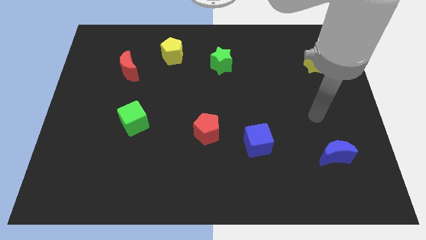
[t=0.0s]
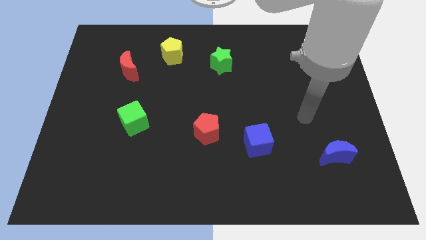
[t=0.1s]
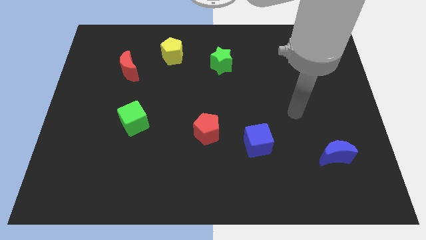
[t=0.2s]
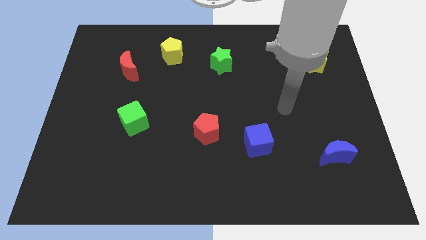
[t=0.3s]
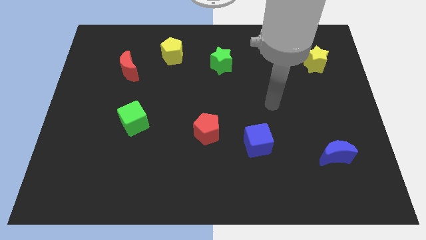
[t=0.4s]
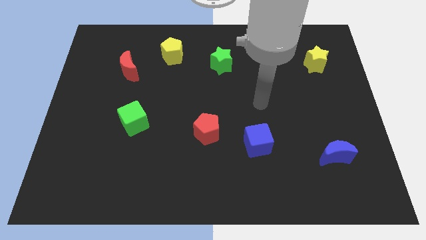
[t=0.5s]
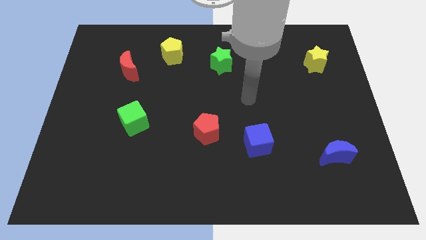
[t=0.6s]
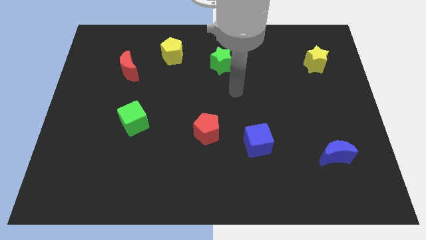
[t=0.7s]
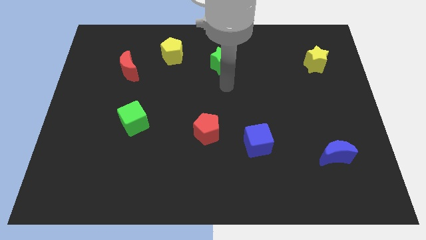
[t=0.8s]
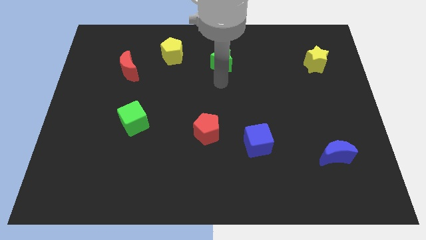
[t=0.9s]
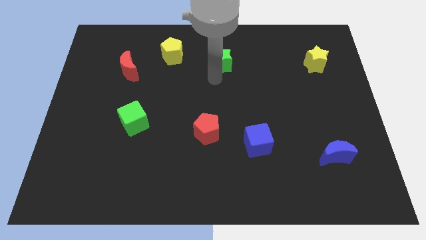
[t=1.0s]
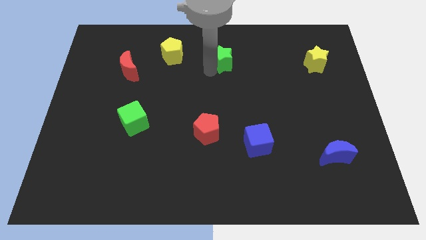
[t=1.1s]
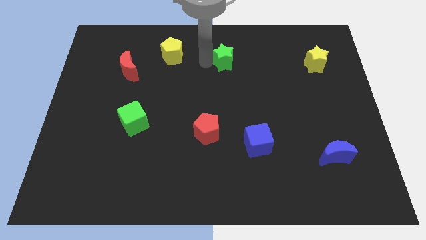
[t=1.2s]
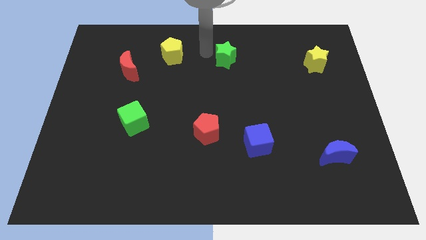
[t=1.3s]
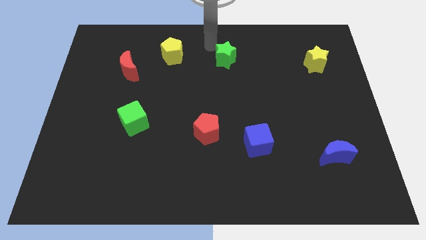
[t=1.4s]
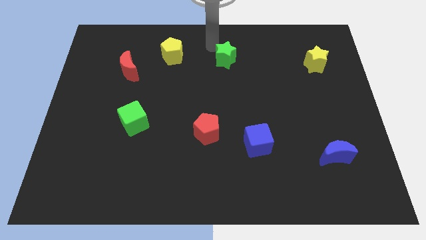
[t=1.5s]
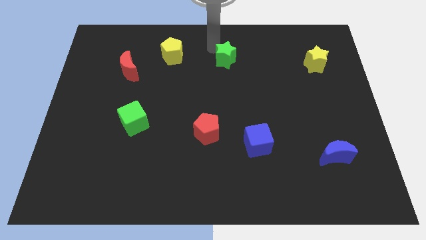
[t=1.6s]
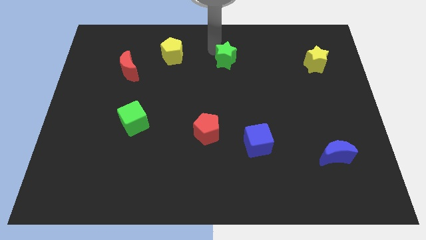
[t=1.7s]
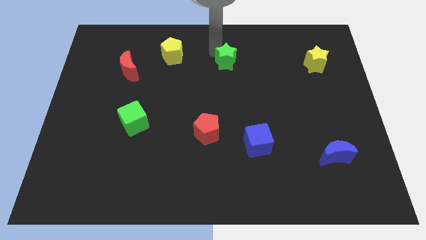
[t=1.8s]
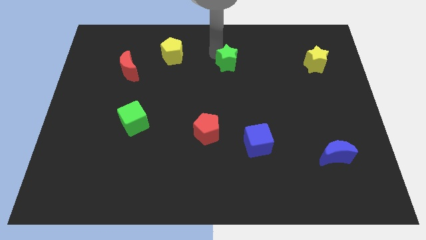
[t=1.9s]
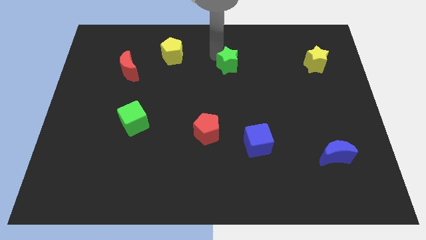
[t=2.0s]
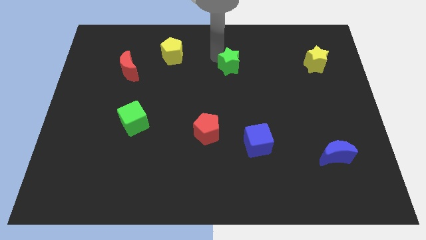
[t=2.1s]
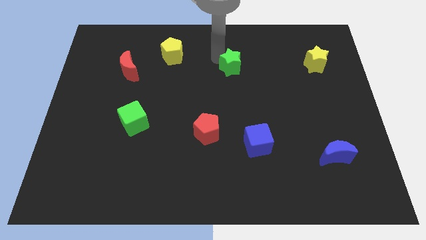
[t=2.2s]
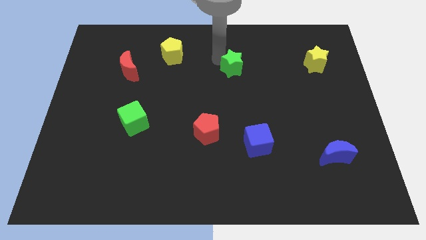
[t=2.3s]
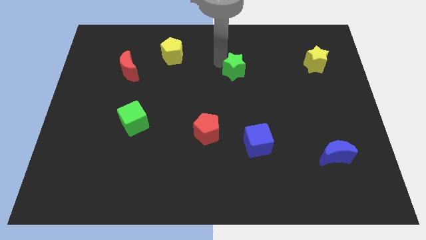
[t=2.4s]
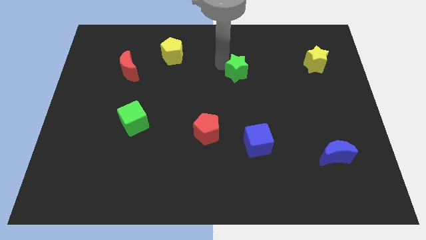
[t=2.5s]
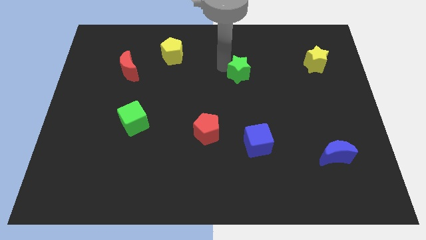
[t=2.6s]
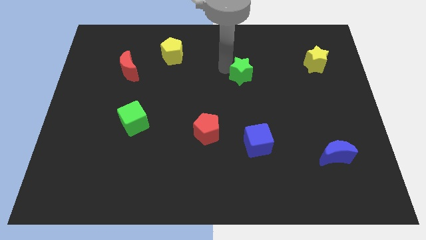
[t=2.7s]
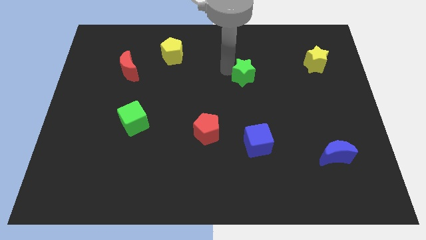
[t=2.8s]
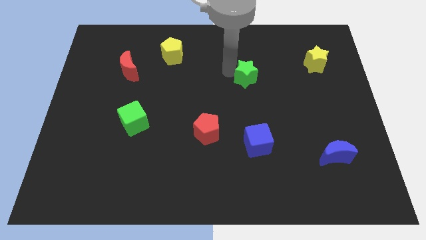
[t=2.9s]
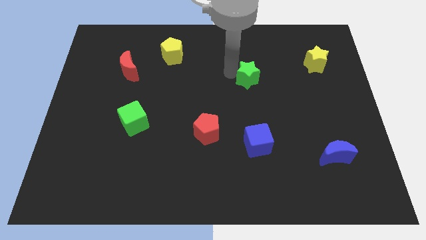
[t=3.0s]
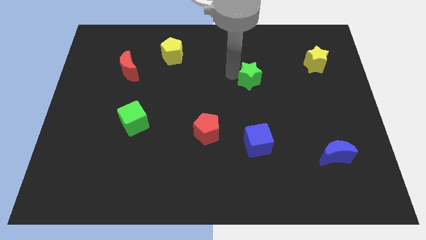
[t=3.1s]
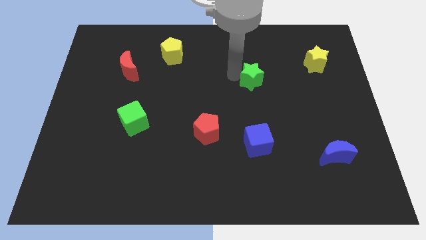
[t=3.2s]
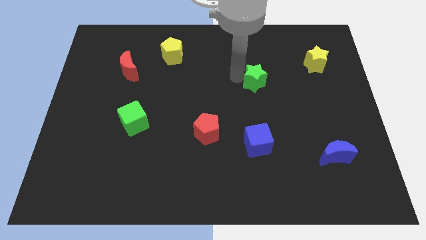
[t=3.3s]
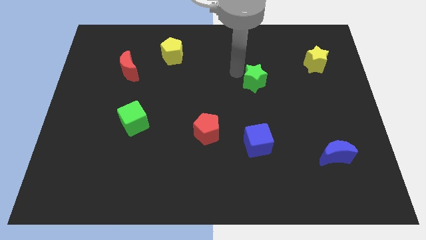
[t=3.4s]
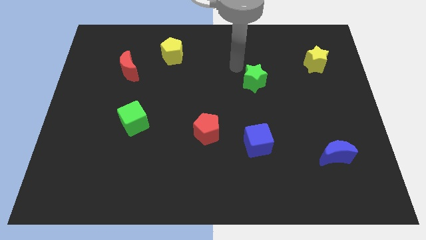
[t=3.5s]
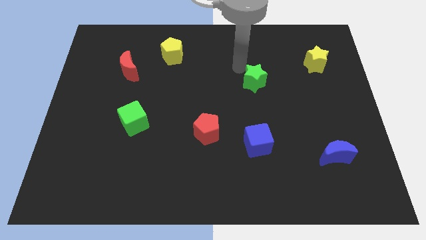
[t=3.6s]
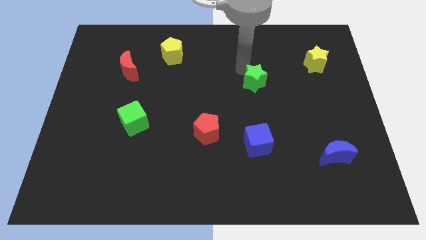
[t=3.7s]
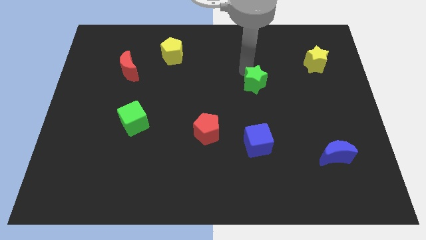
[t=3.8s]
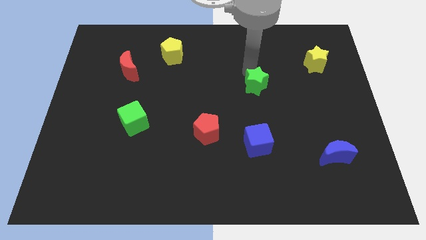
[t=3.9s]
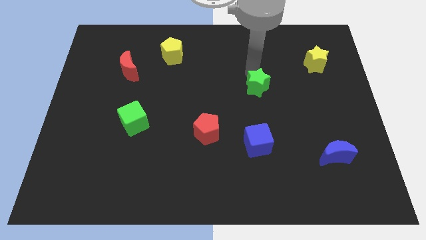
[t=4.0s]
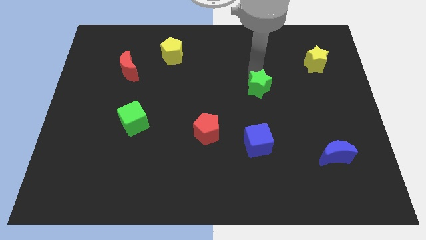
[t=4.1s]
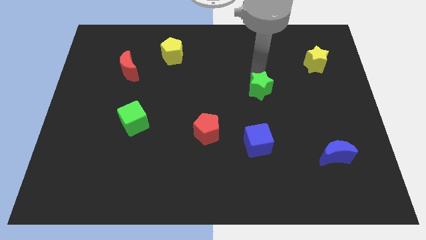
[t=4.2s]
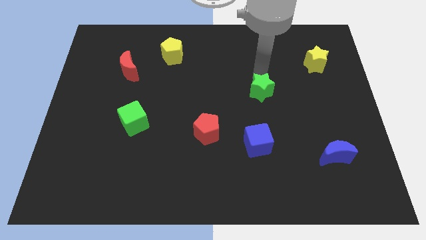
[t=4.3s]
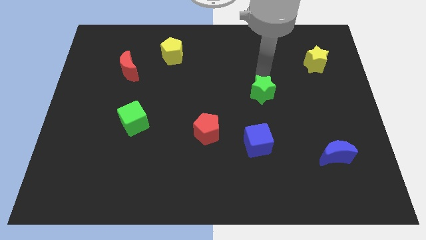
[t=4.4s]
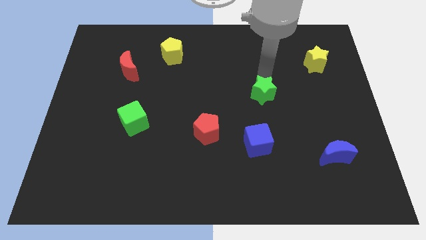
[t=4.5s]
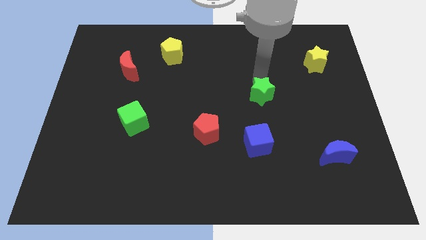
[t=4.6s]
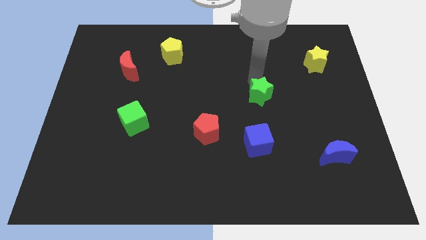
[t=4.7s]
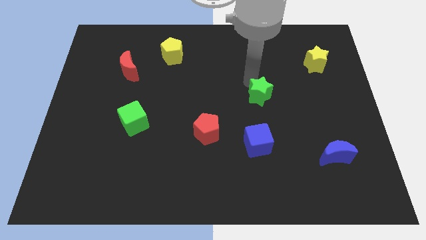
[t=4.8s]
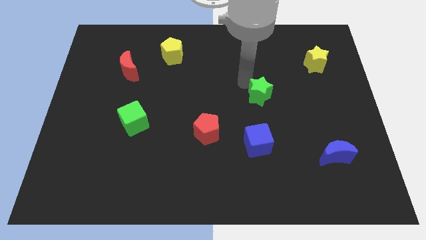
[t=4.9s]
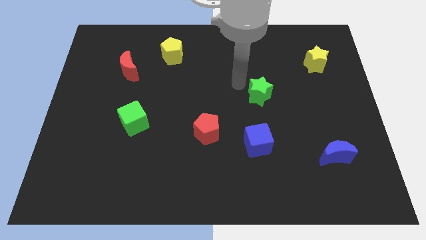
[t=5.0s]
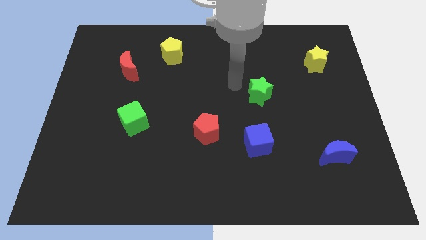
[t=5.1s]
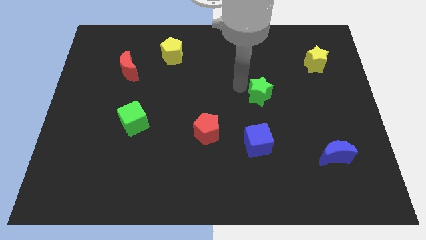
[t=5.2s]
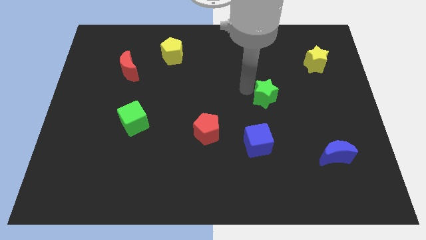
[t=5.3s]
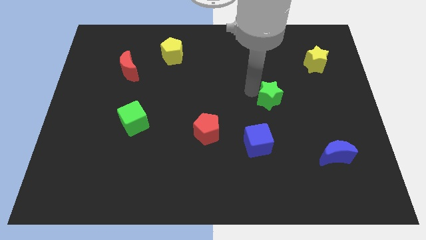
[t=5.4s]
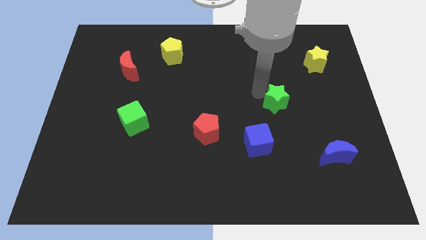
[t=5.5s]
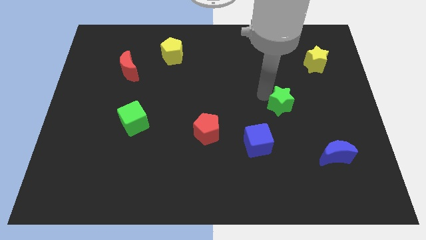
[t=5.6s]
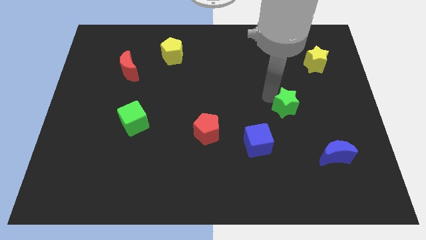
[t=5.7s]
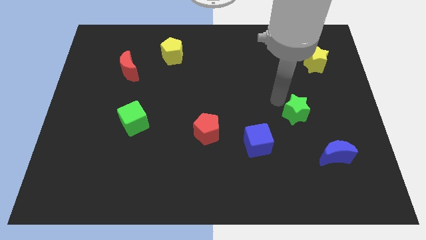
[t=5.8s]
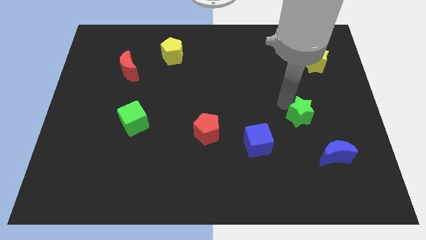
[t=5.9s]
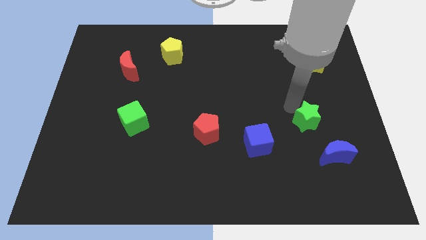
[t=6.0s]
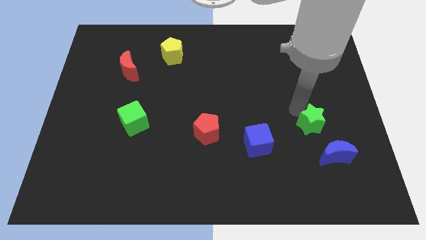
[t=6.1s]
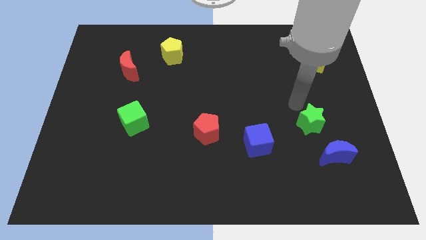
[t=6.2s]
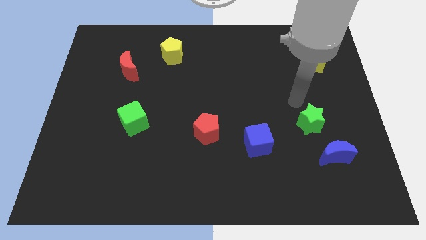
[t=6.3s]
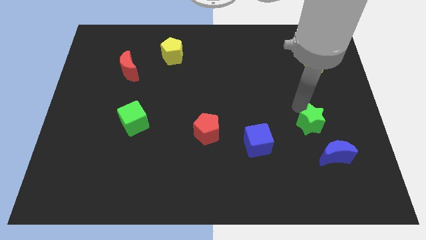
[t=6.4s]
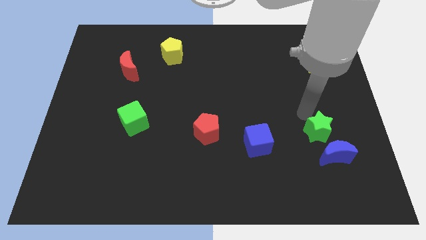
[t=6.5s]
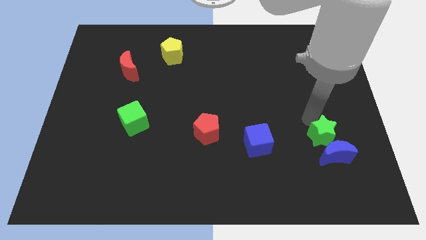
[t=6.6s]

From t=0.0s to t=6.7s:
slide the green star towards the blue moon

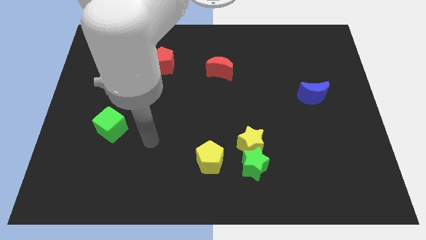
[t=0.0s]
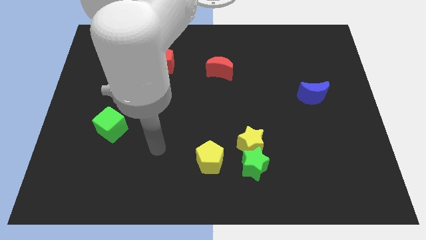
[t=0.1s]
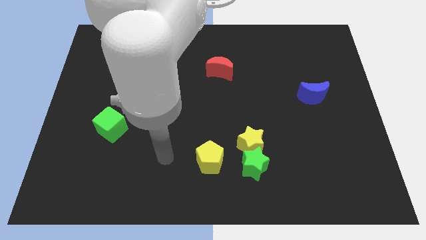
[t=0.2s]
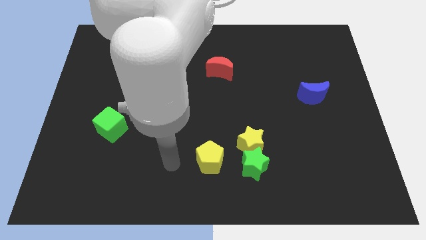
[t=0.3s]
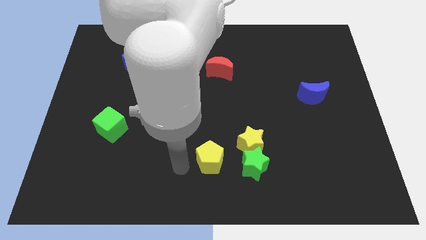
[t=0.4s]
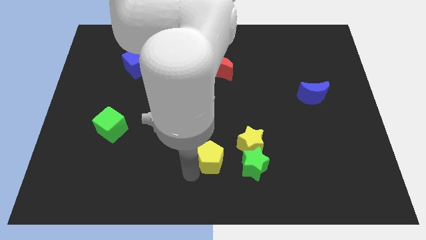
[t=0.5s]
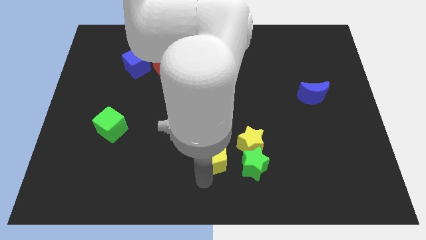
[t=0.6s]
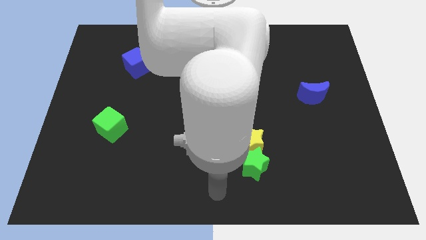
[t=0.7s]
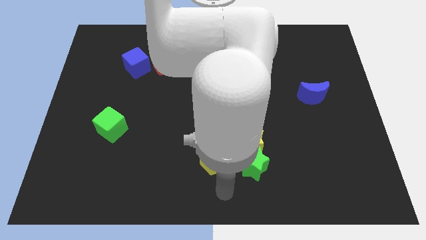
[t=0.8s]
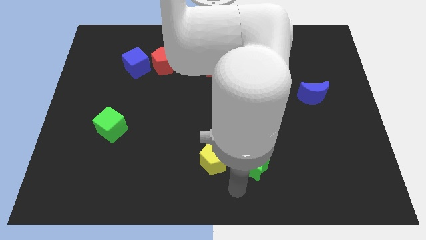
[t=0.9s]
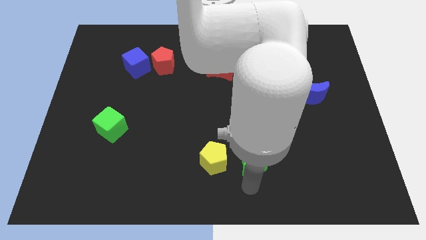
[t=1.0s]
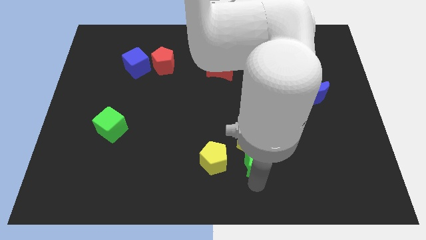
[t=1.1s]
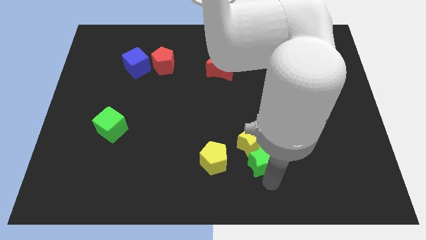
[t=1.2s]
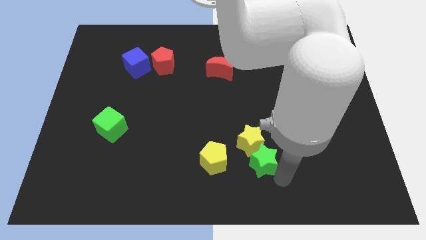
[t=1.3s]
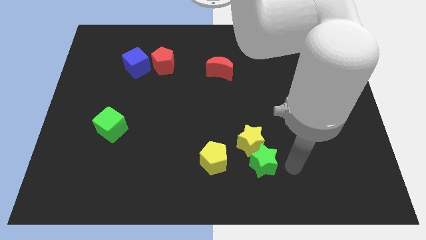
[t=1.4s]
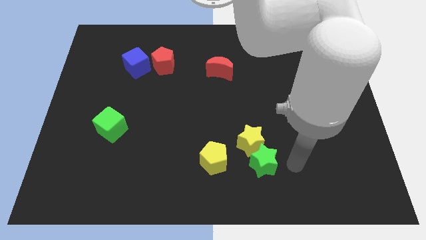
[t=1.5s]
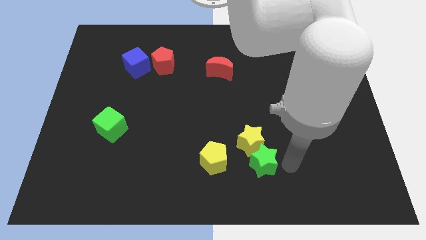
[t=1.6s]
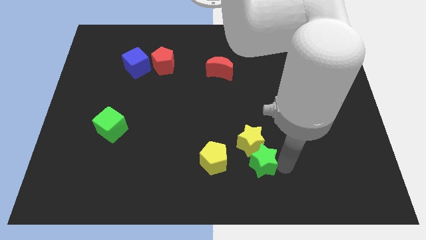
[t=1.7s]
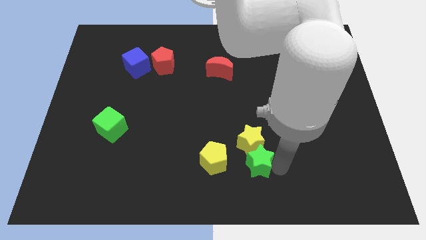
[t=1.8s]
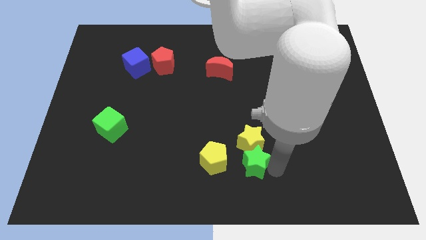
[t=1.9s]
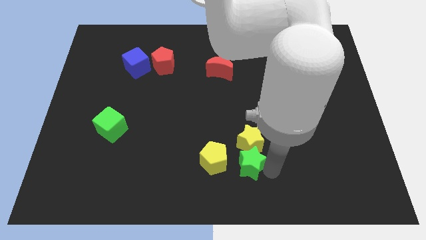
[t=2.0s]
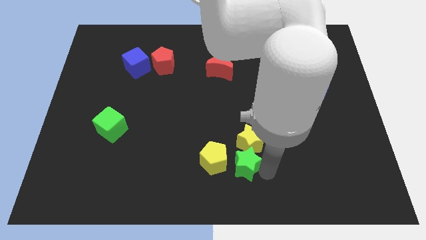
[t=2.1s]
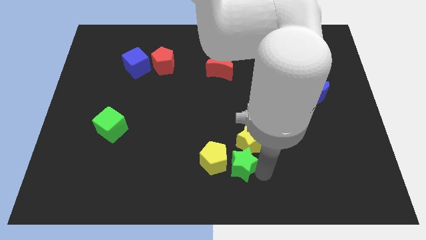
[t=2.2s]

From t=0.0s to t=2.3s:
put the green star close to the yellow pentagon
